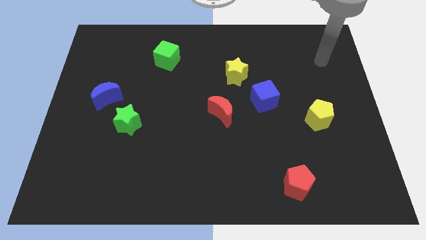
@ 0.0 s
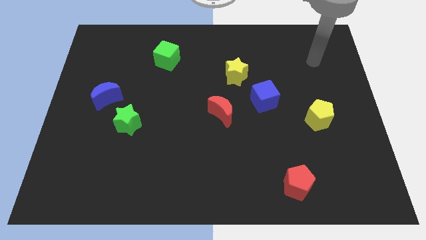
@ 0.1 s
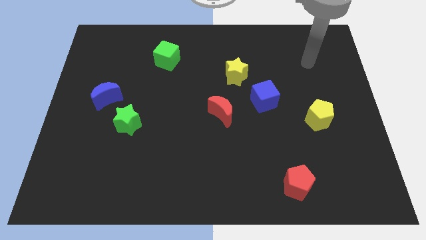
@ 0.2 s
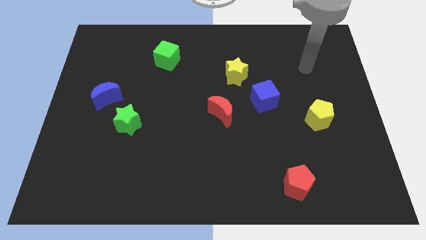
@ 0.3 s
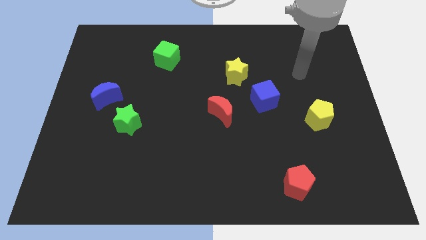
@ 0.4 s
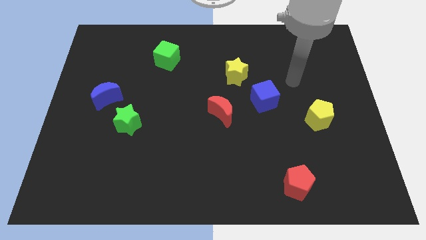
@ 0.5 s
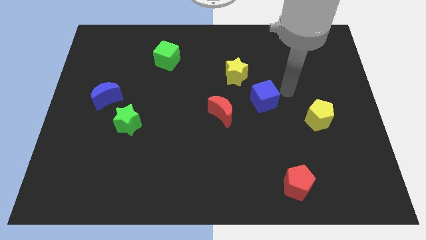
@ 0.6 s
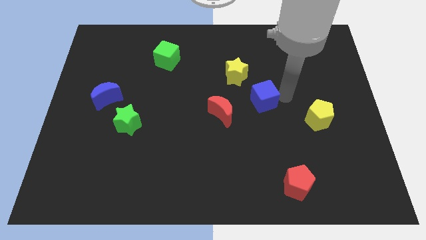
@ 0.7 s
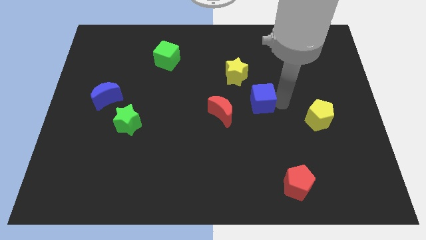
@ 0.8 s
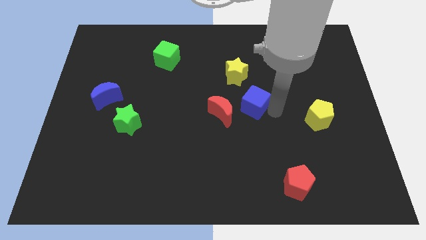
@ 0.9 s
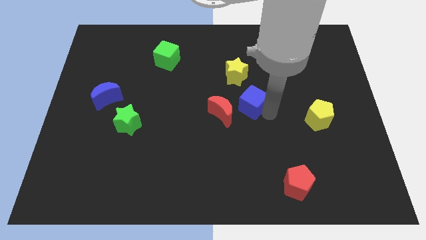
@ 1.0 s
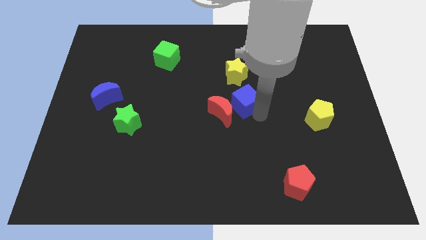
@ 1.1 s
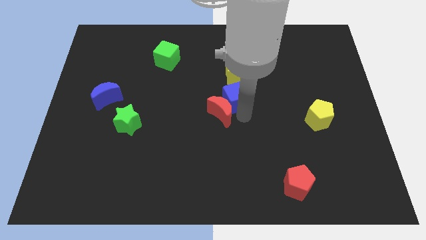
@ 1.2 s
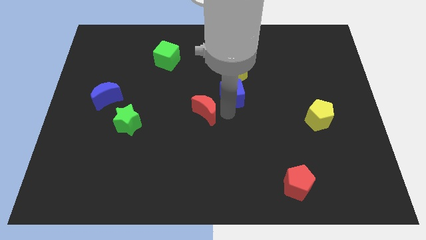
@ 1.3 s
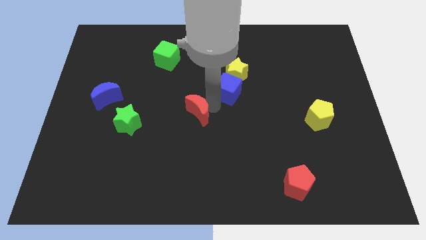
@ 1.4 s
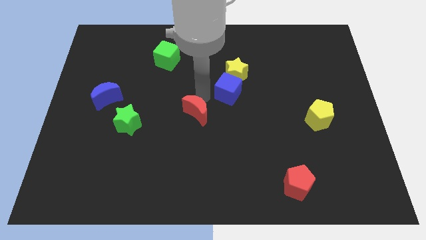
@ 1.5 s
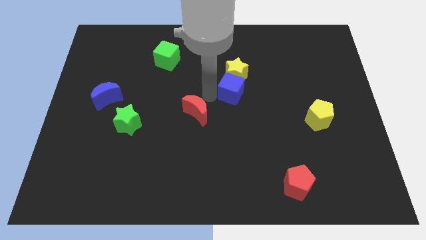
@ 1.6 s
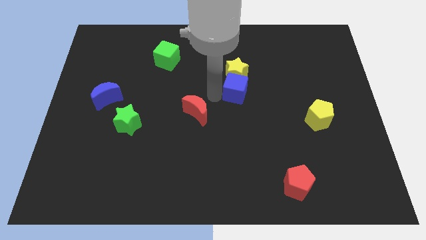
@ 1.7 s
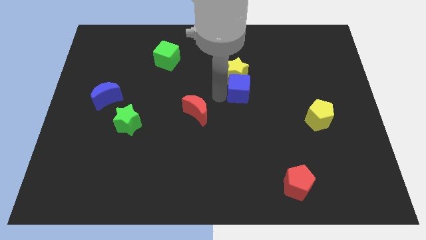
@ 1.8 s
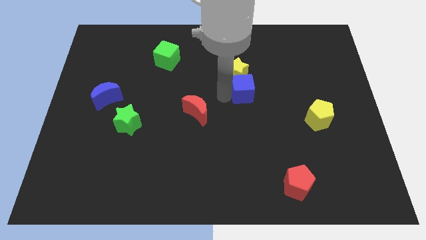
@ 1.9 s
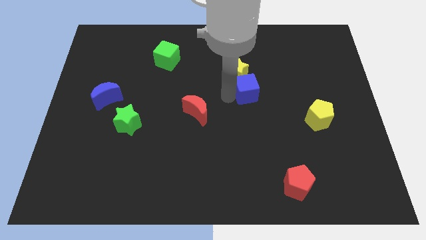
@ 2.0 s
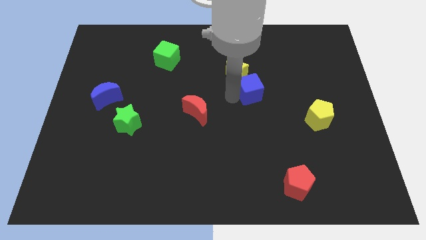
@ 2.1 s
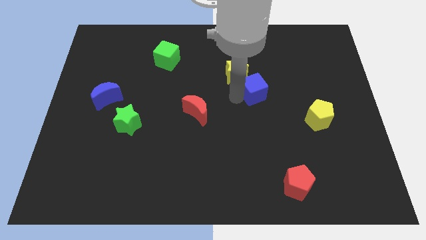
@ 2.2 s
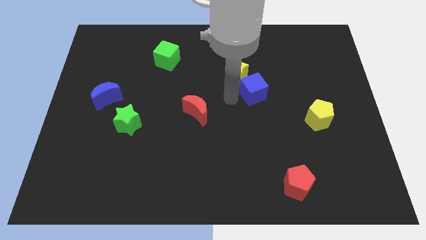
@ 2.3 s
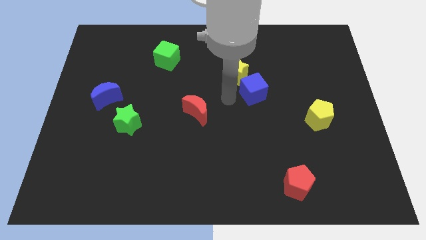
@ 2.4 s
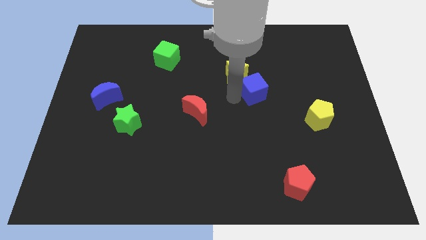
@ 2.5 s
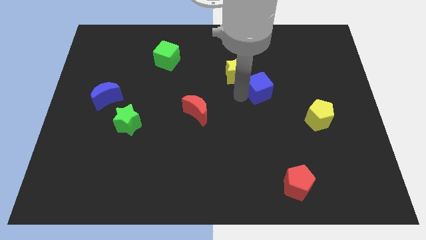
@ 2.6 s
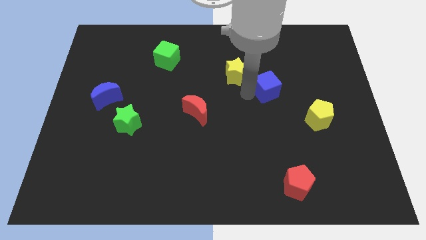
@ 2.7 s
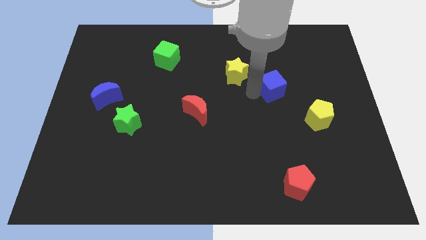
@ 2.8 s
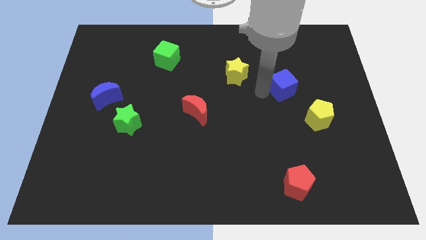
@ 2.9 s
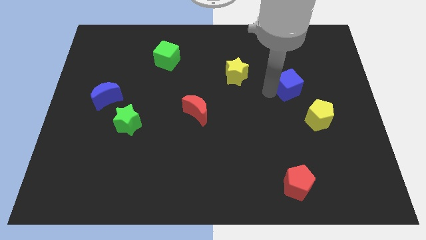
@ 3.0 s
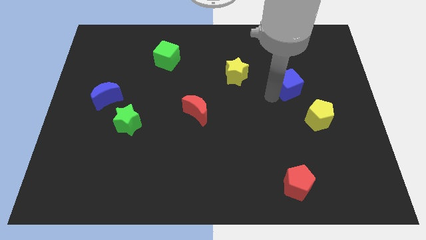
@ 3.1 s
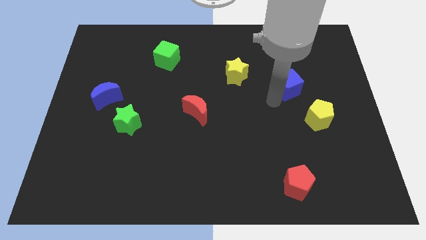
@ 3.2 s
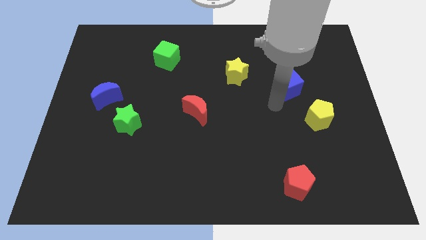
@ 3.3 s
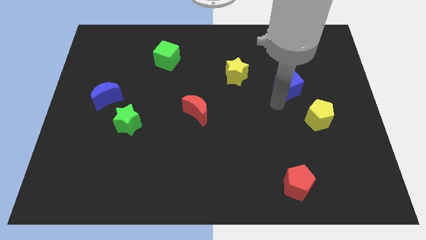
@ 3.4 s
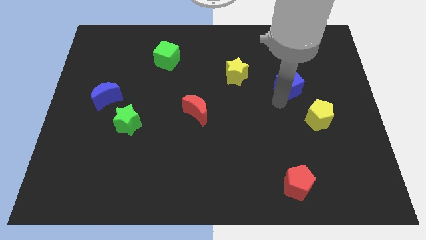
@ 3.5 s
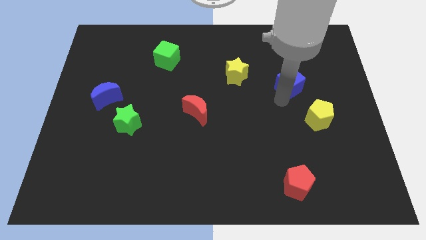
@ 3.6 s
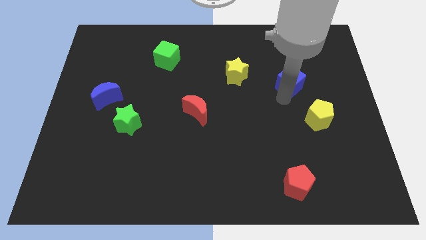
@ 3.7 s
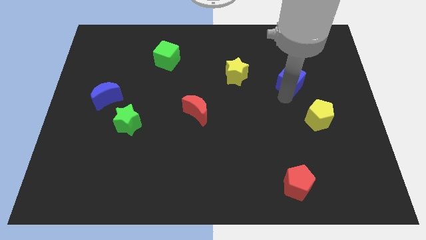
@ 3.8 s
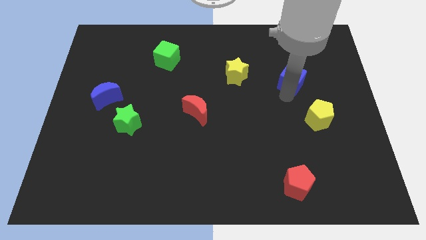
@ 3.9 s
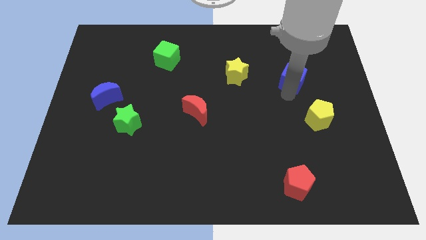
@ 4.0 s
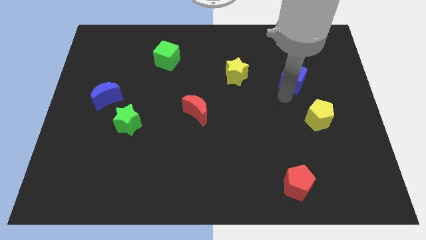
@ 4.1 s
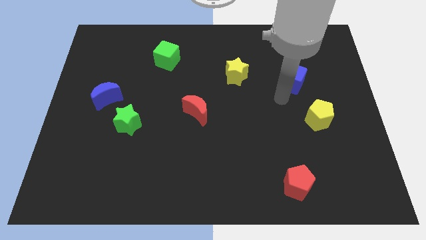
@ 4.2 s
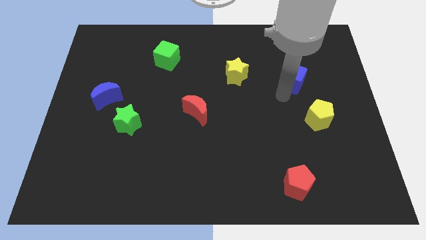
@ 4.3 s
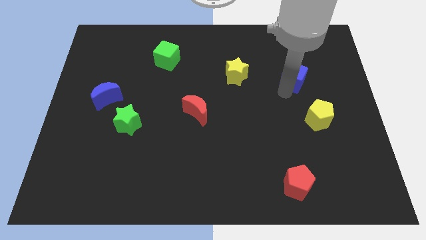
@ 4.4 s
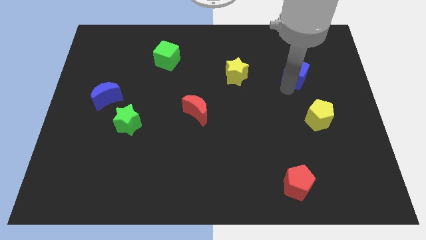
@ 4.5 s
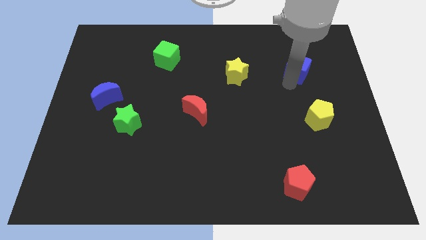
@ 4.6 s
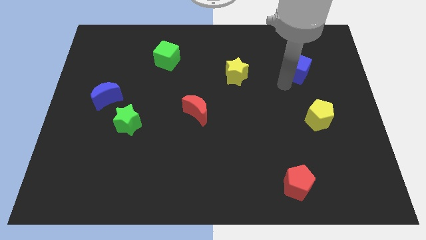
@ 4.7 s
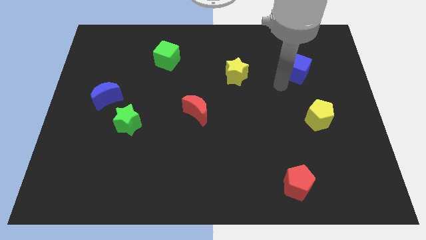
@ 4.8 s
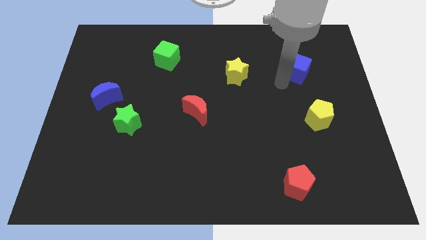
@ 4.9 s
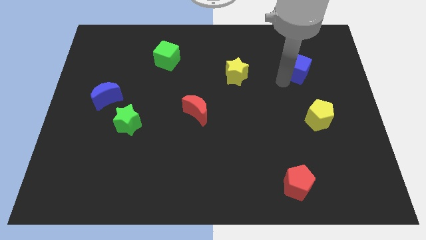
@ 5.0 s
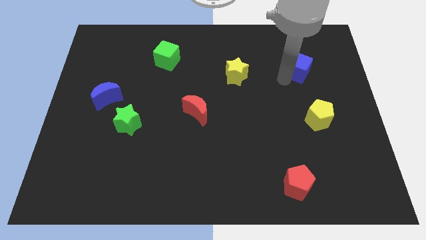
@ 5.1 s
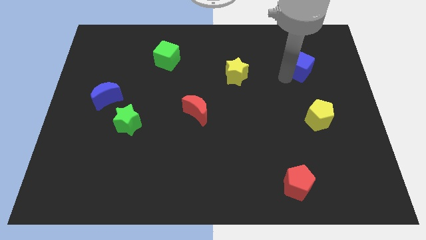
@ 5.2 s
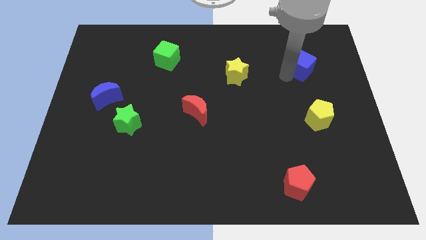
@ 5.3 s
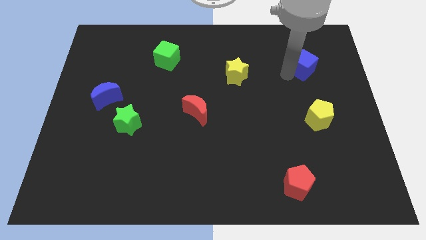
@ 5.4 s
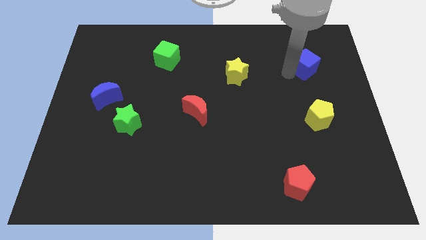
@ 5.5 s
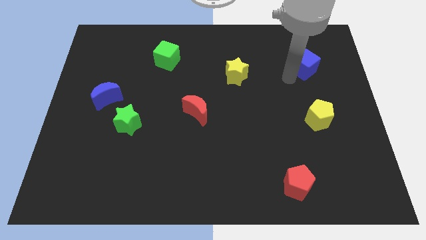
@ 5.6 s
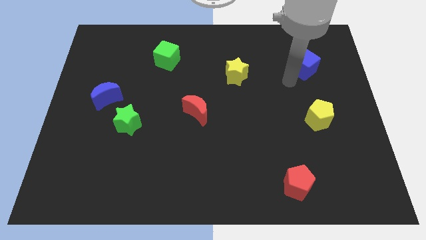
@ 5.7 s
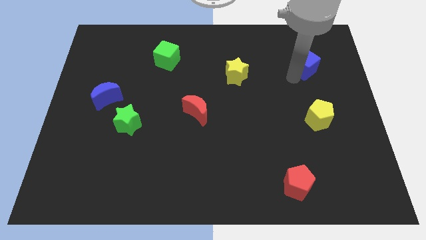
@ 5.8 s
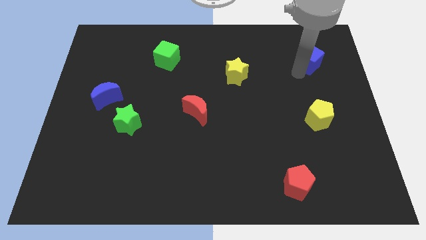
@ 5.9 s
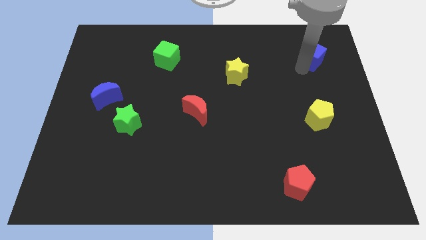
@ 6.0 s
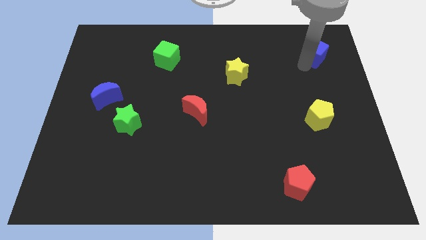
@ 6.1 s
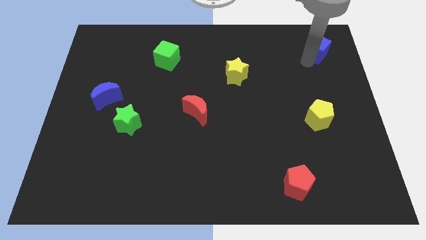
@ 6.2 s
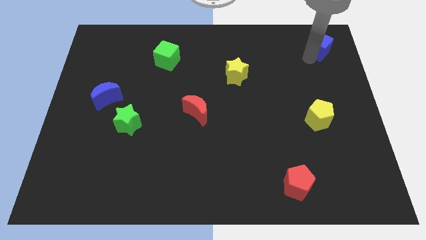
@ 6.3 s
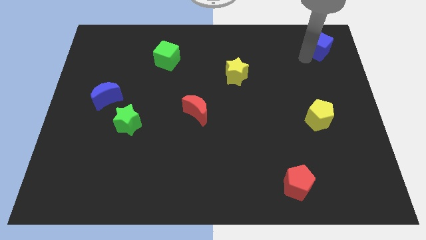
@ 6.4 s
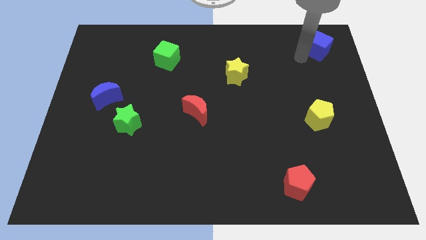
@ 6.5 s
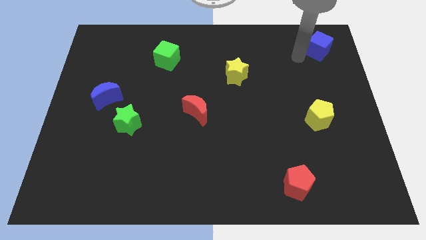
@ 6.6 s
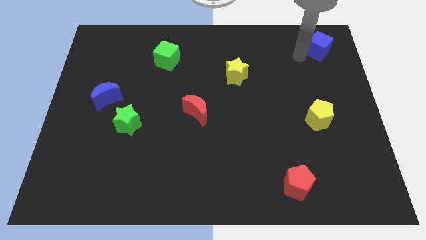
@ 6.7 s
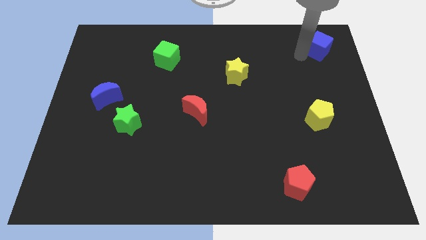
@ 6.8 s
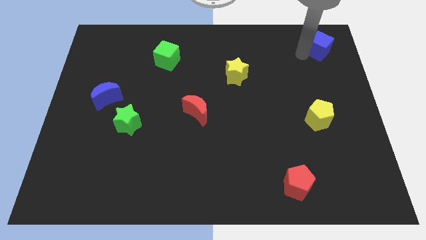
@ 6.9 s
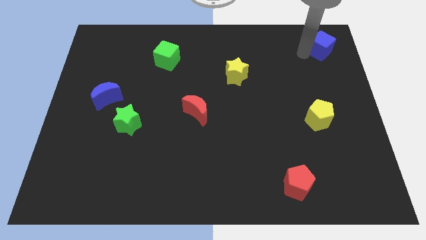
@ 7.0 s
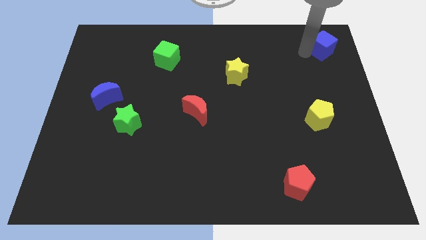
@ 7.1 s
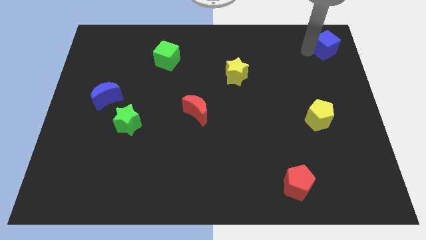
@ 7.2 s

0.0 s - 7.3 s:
push the blue cube to the top right of the board

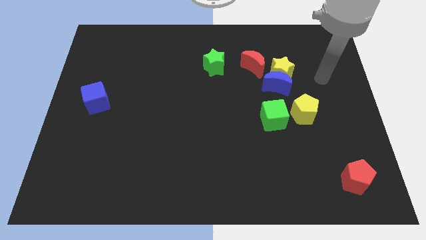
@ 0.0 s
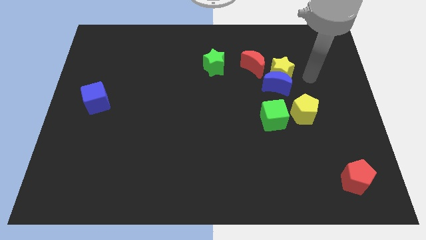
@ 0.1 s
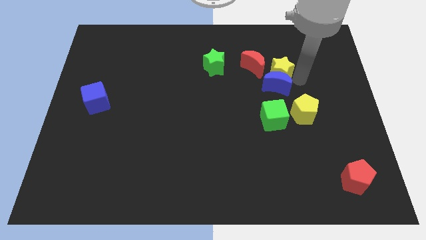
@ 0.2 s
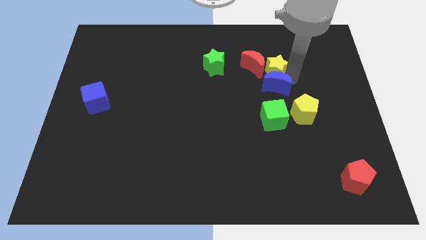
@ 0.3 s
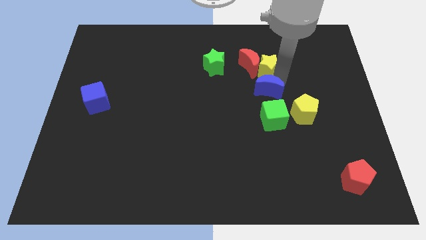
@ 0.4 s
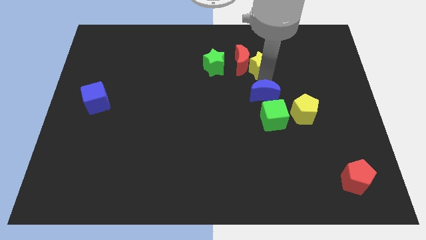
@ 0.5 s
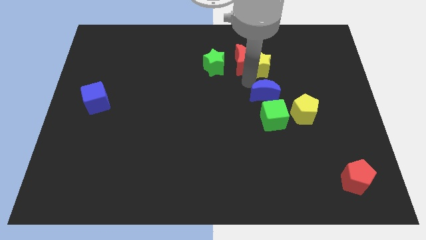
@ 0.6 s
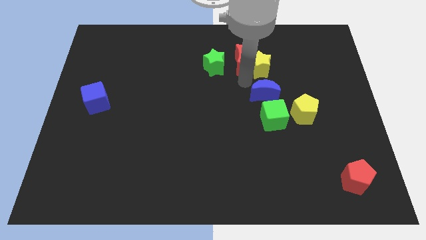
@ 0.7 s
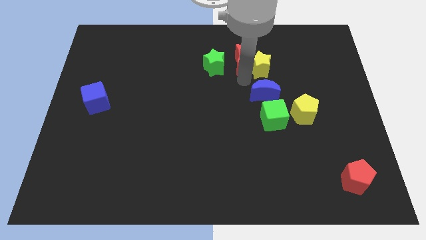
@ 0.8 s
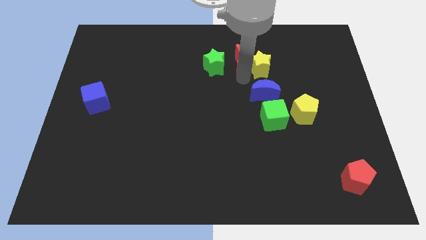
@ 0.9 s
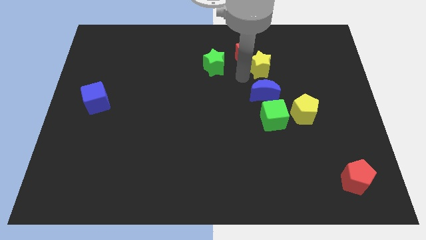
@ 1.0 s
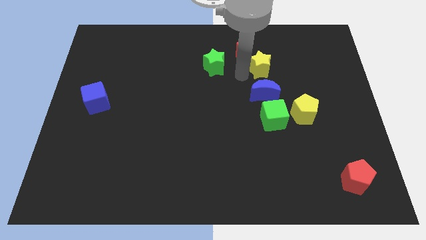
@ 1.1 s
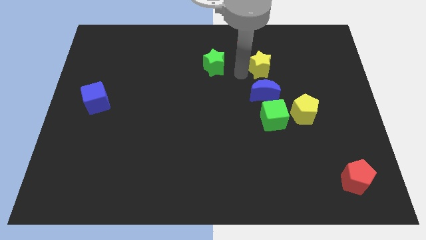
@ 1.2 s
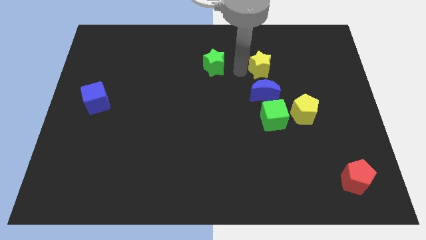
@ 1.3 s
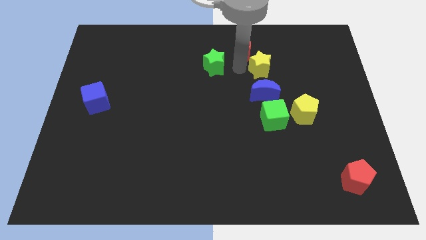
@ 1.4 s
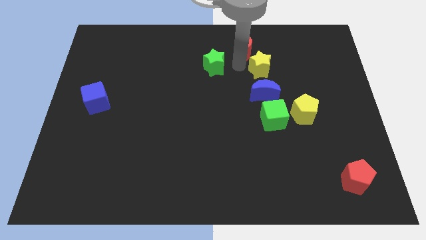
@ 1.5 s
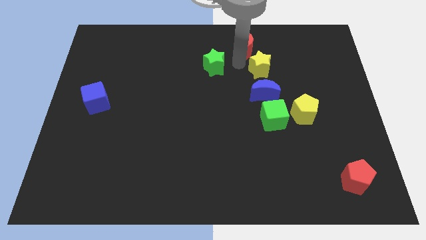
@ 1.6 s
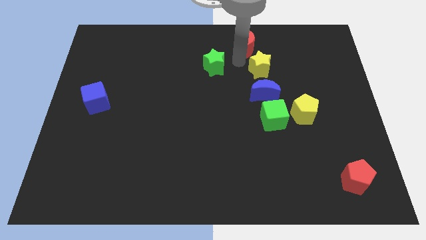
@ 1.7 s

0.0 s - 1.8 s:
put the red moon to the top
